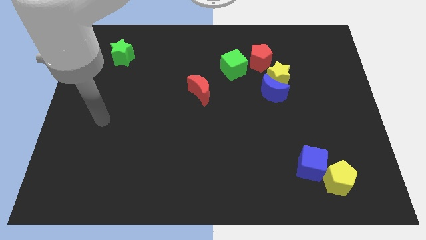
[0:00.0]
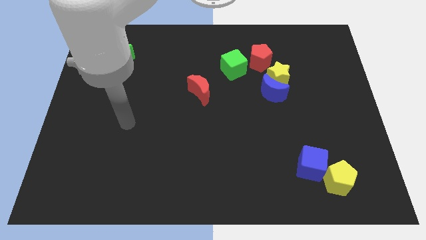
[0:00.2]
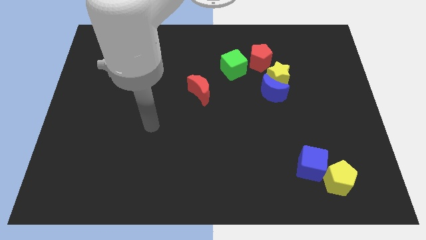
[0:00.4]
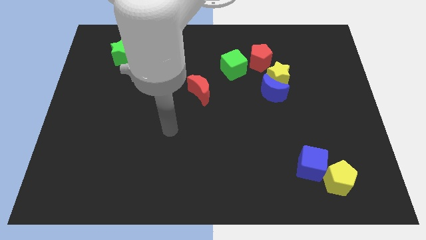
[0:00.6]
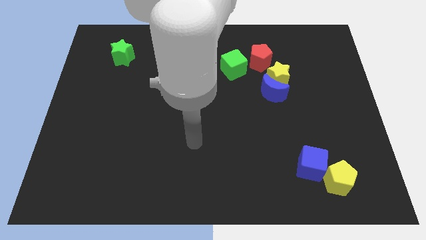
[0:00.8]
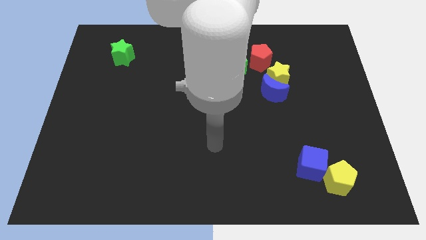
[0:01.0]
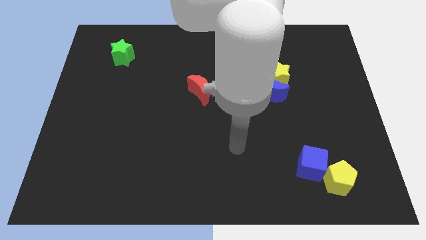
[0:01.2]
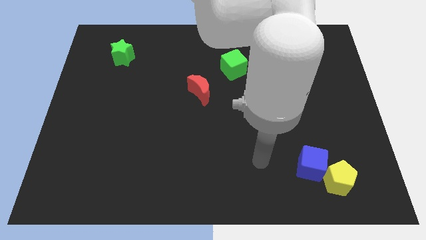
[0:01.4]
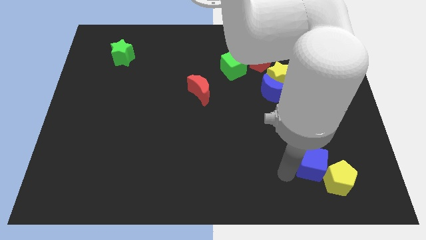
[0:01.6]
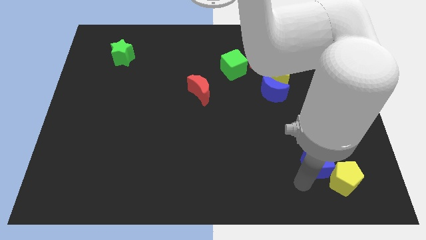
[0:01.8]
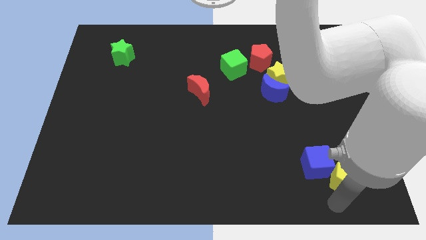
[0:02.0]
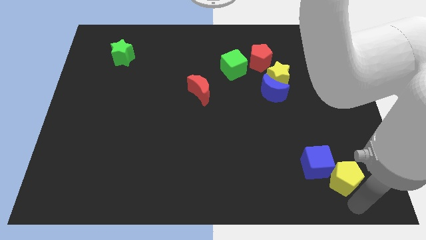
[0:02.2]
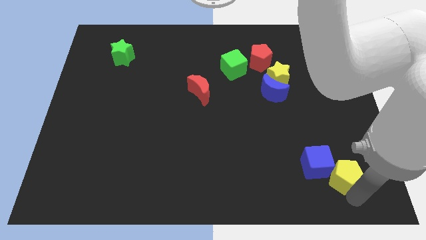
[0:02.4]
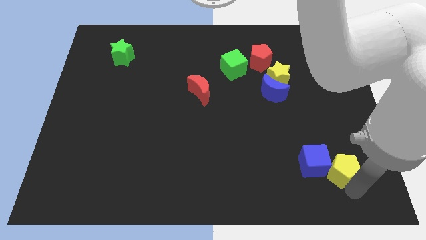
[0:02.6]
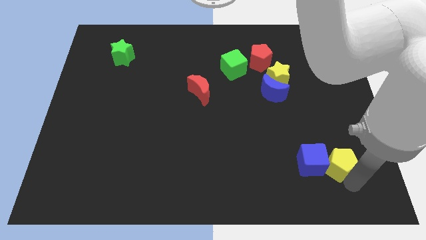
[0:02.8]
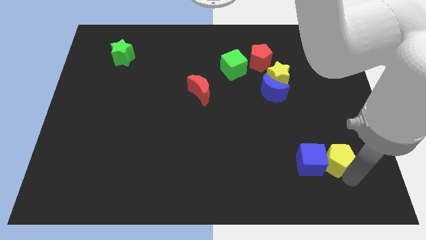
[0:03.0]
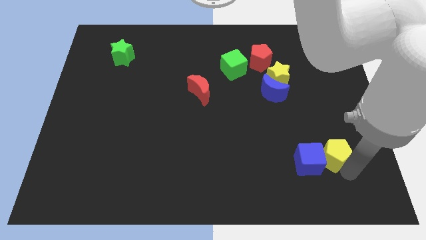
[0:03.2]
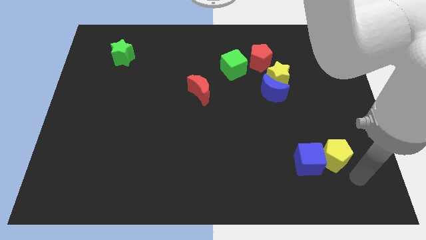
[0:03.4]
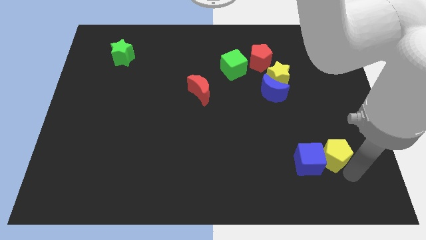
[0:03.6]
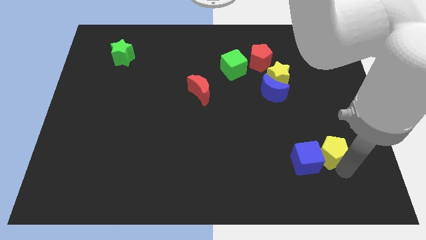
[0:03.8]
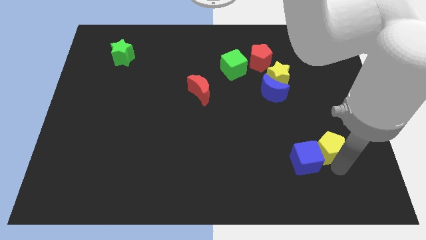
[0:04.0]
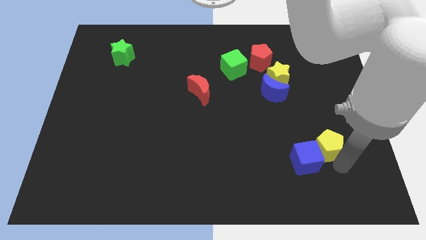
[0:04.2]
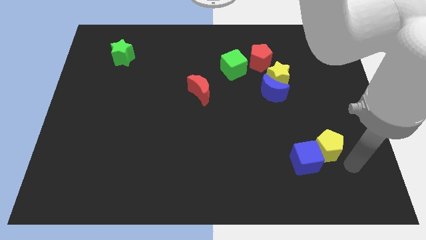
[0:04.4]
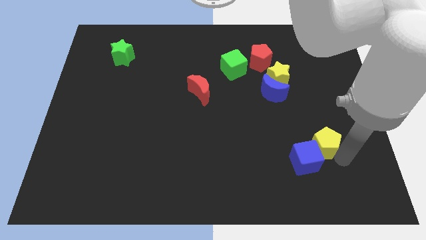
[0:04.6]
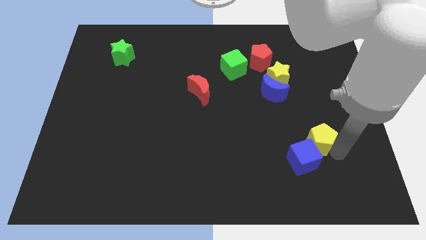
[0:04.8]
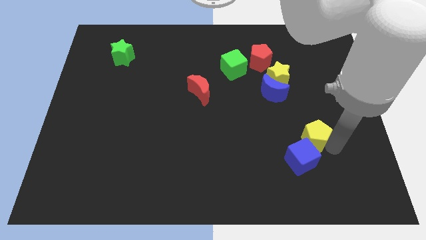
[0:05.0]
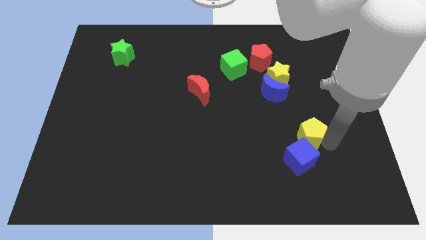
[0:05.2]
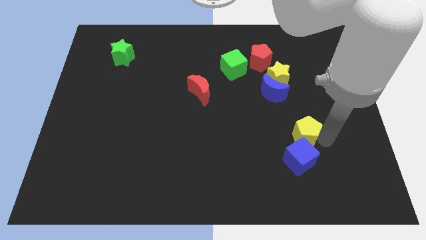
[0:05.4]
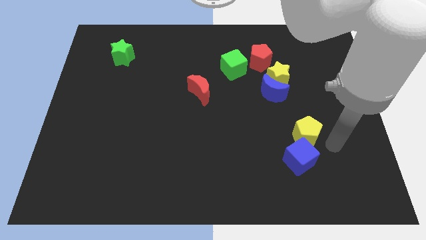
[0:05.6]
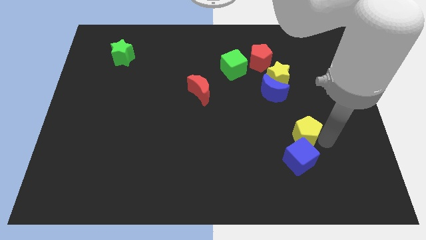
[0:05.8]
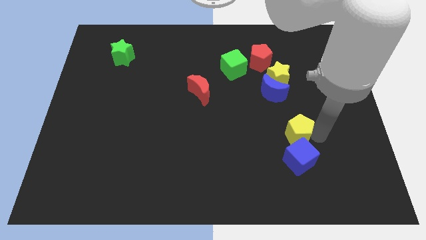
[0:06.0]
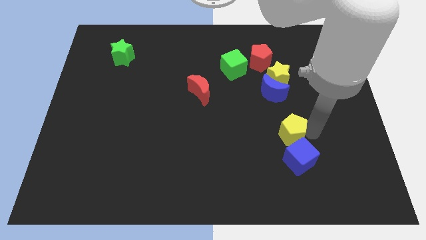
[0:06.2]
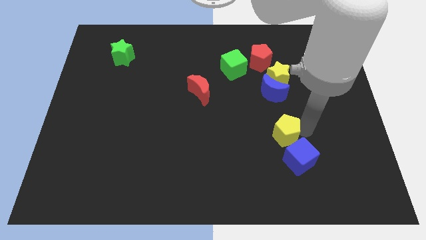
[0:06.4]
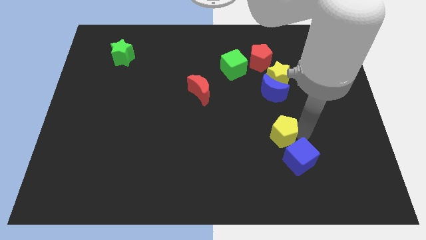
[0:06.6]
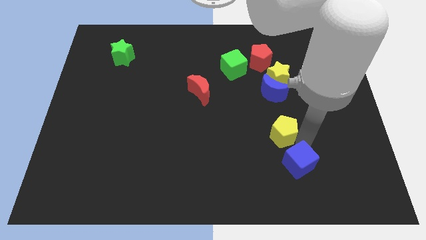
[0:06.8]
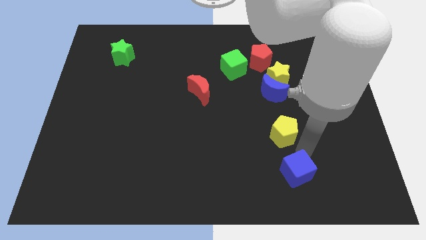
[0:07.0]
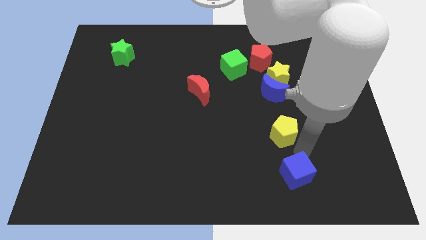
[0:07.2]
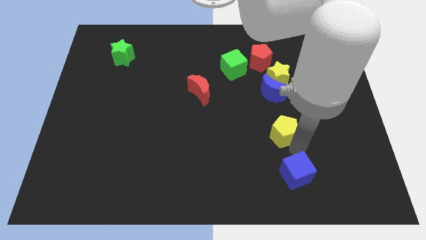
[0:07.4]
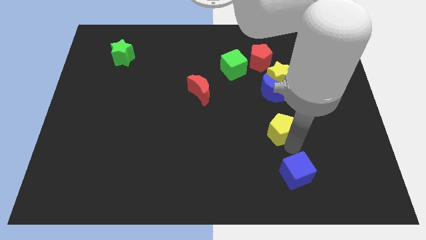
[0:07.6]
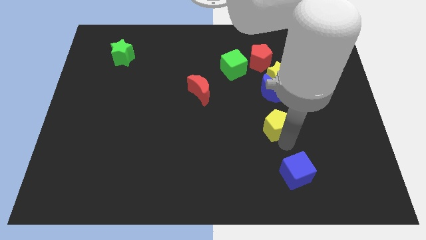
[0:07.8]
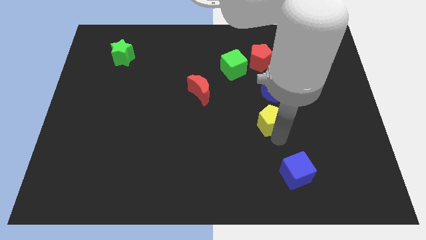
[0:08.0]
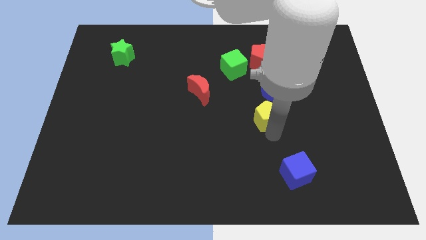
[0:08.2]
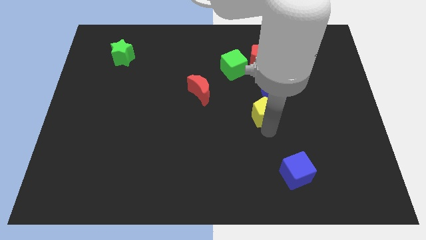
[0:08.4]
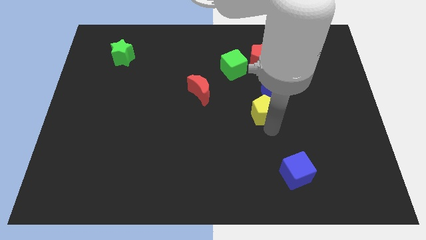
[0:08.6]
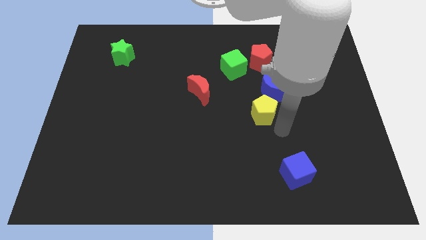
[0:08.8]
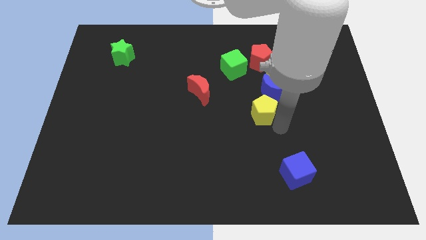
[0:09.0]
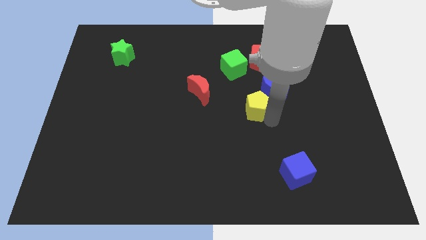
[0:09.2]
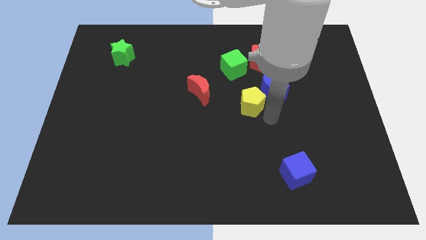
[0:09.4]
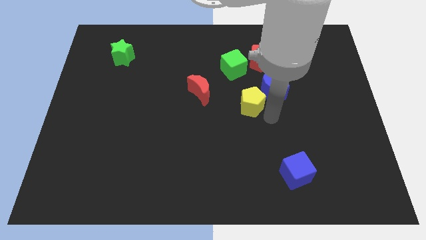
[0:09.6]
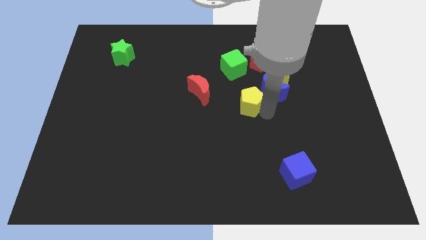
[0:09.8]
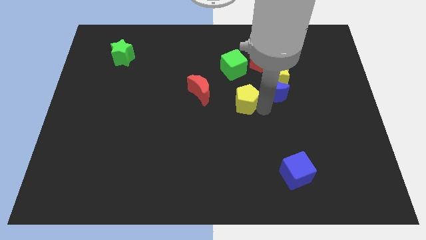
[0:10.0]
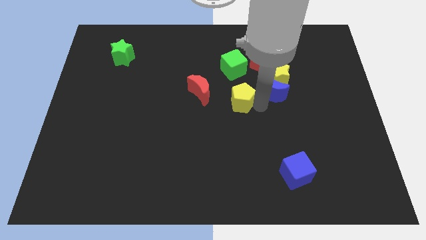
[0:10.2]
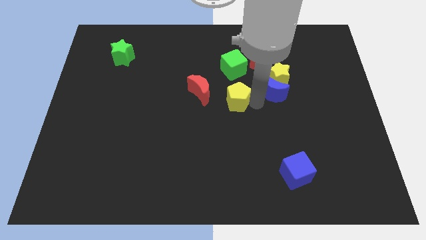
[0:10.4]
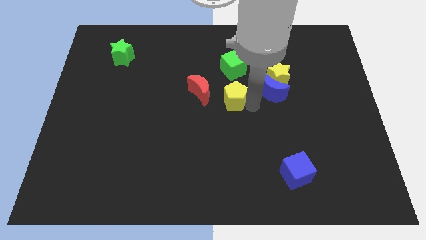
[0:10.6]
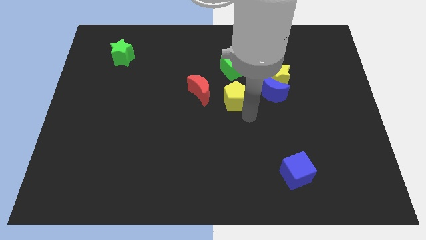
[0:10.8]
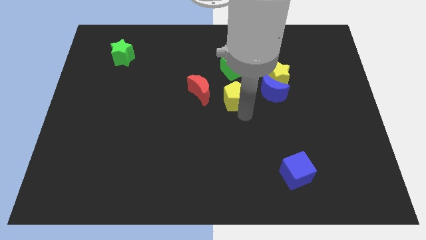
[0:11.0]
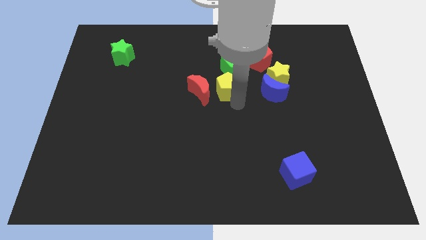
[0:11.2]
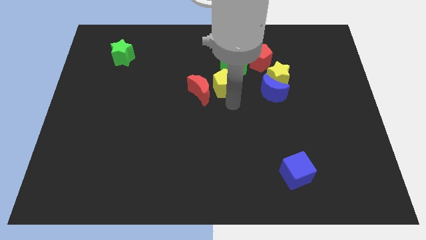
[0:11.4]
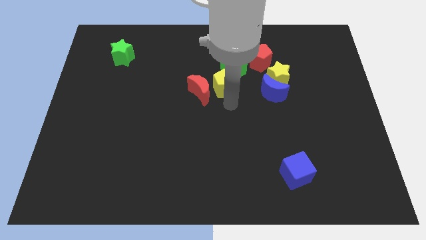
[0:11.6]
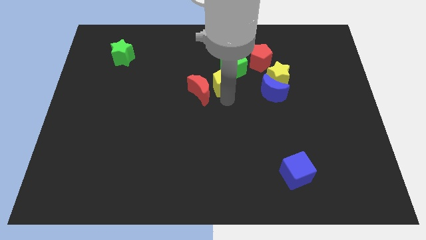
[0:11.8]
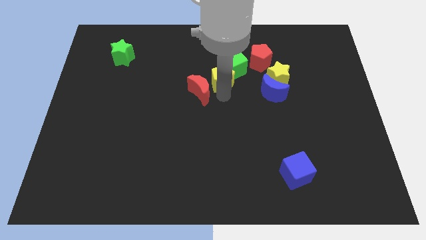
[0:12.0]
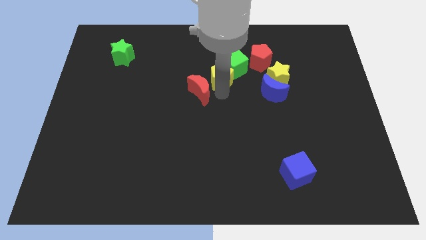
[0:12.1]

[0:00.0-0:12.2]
put the yellow pentagon above the red moon

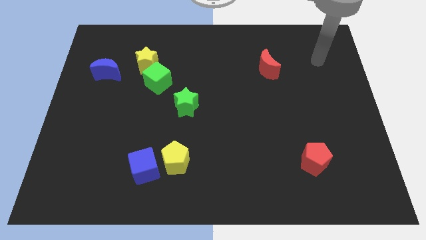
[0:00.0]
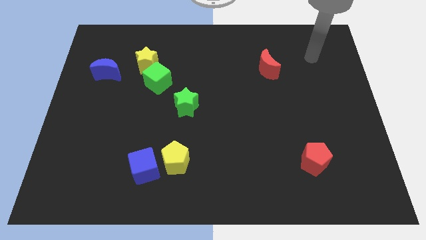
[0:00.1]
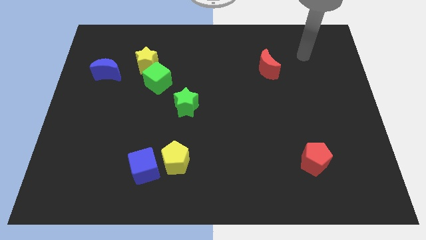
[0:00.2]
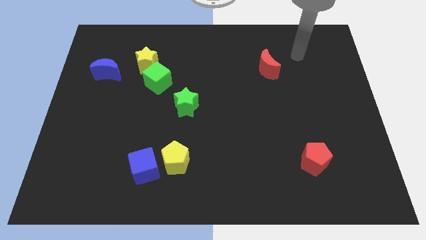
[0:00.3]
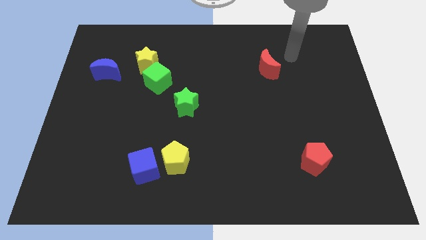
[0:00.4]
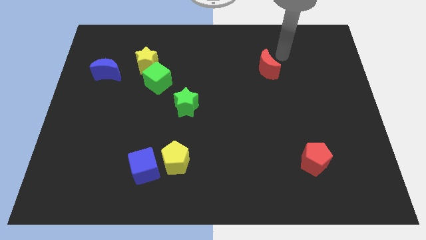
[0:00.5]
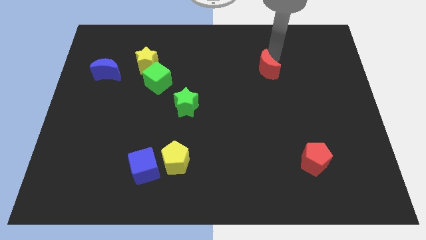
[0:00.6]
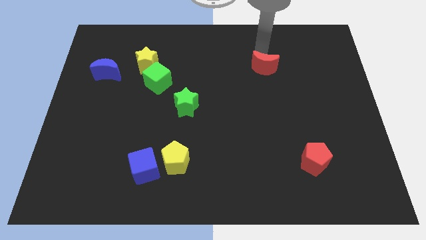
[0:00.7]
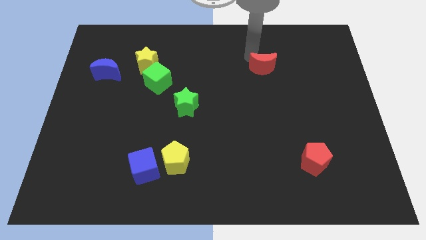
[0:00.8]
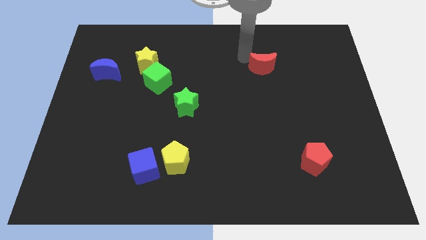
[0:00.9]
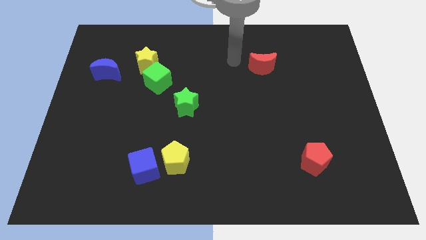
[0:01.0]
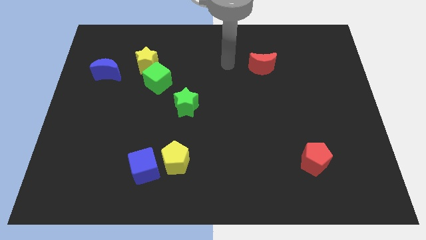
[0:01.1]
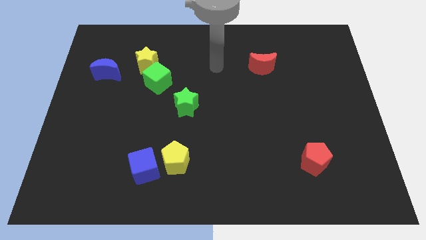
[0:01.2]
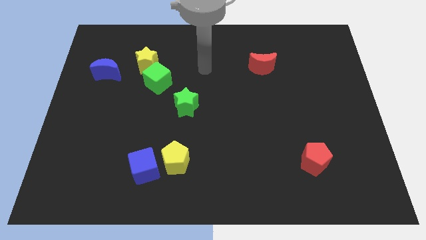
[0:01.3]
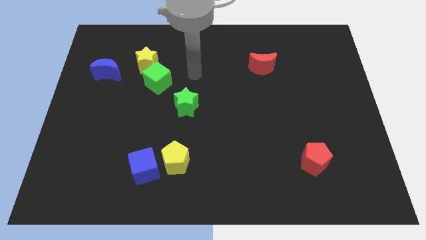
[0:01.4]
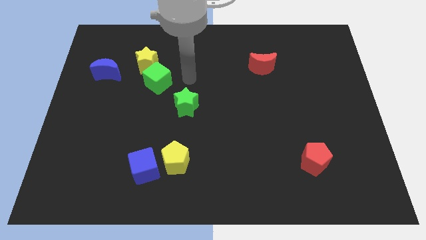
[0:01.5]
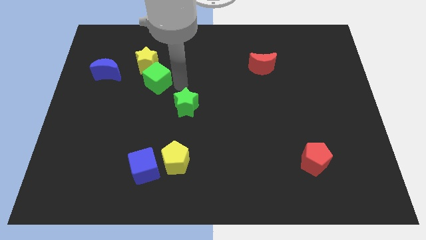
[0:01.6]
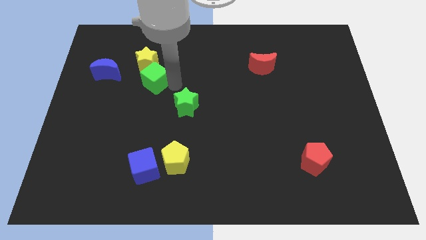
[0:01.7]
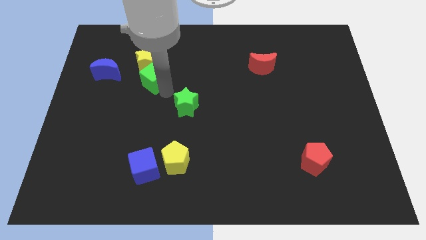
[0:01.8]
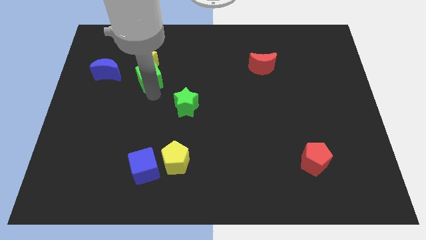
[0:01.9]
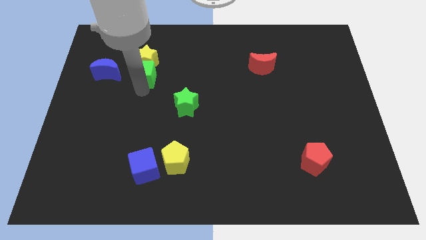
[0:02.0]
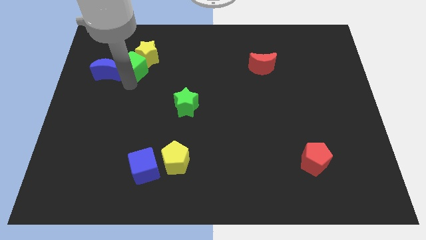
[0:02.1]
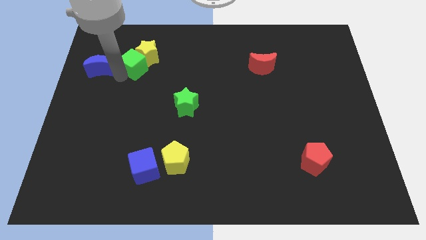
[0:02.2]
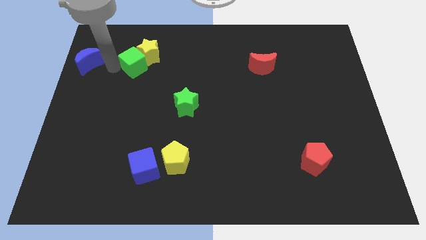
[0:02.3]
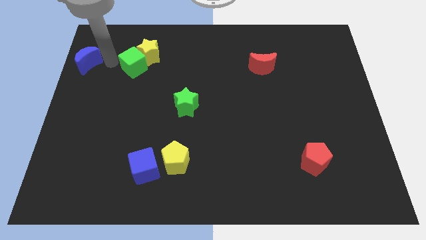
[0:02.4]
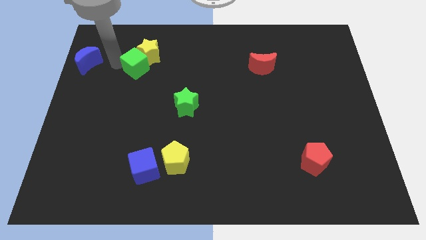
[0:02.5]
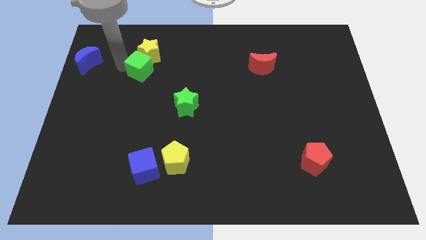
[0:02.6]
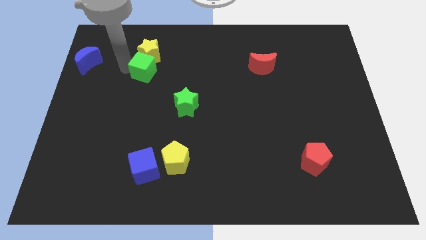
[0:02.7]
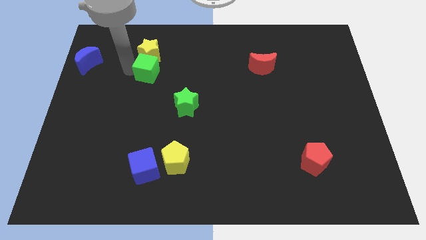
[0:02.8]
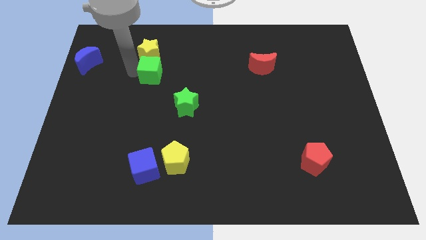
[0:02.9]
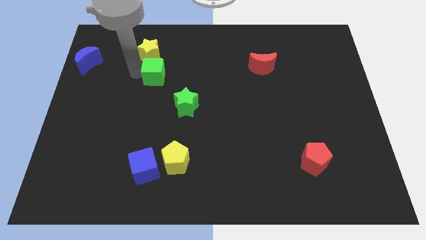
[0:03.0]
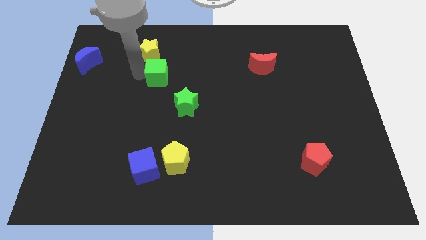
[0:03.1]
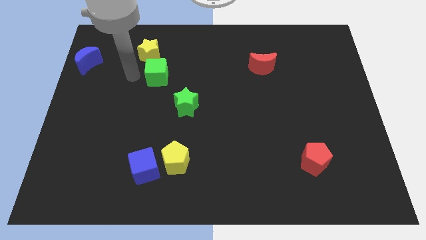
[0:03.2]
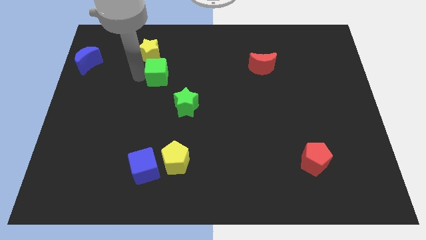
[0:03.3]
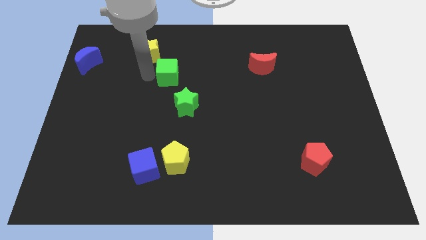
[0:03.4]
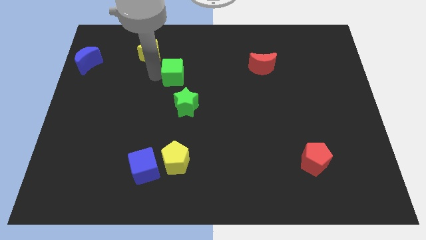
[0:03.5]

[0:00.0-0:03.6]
move the green cube to the top side of the green star
